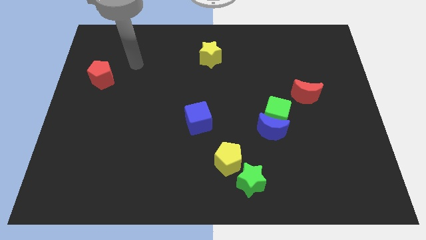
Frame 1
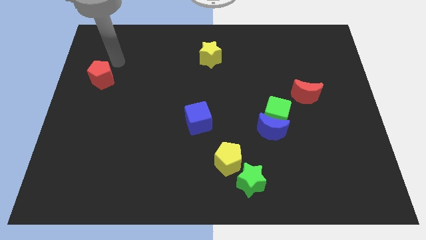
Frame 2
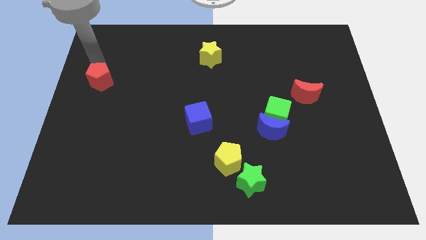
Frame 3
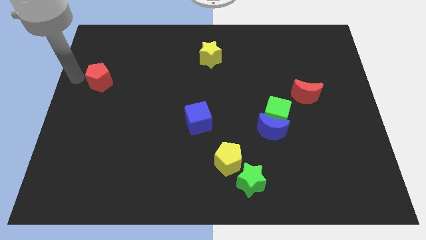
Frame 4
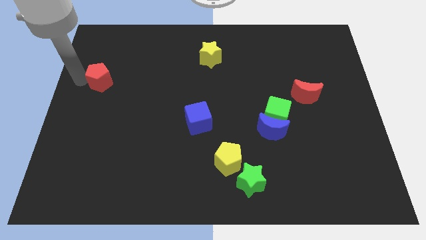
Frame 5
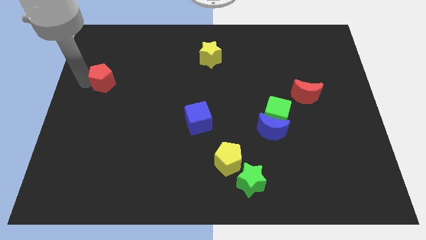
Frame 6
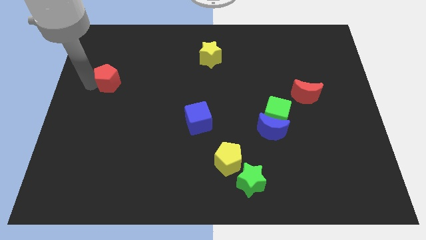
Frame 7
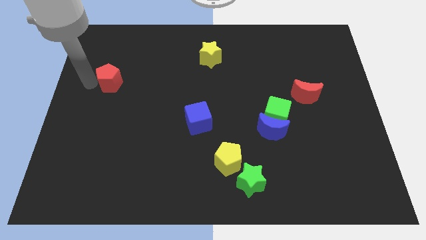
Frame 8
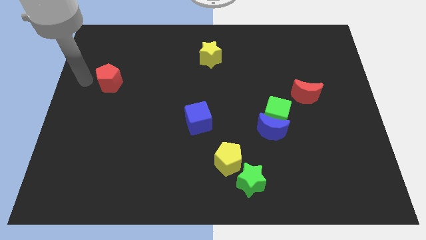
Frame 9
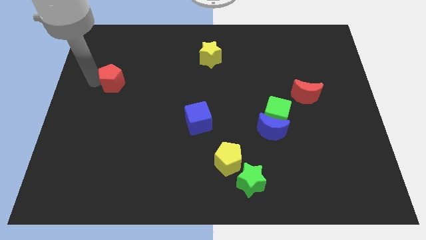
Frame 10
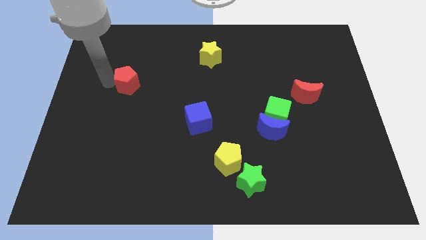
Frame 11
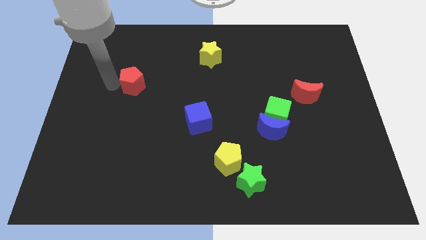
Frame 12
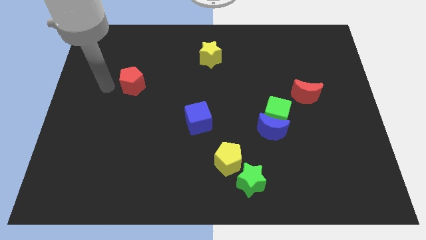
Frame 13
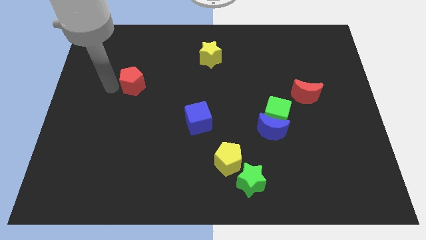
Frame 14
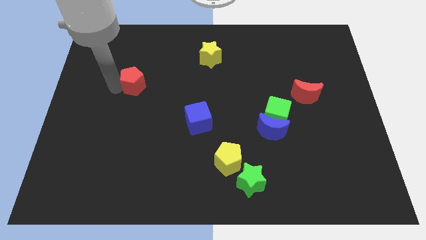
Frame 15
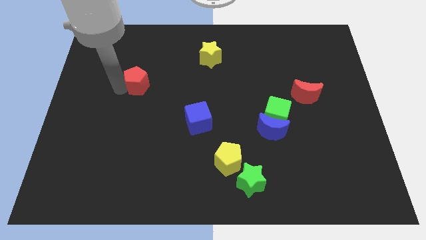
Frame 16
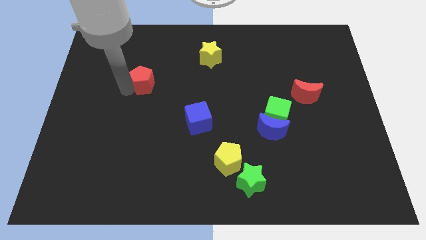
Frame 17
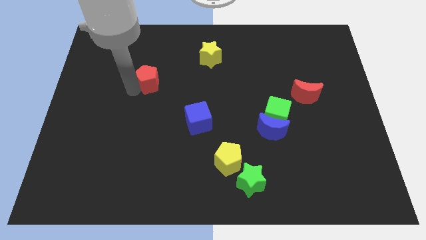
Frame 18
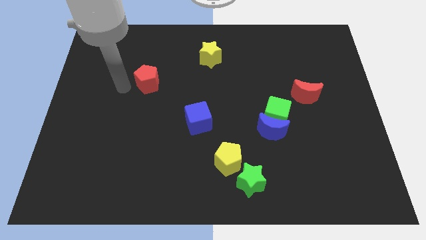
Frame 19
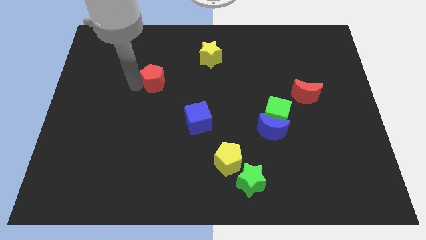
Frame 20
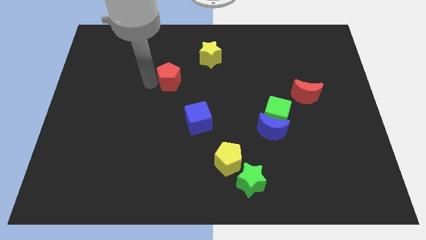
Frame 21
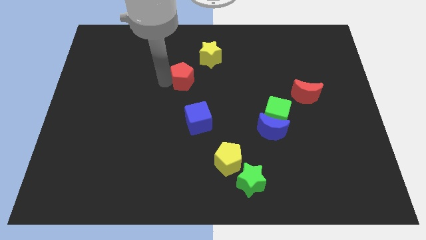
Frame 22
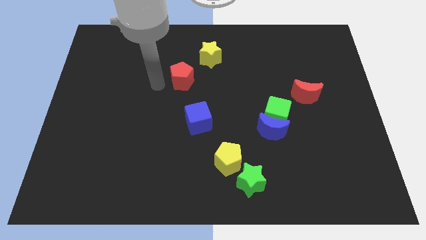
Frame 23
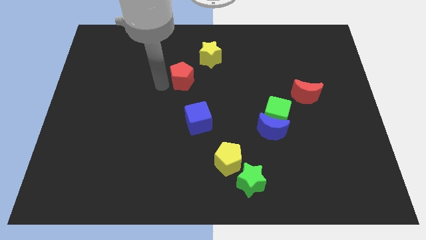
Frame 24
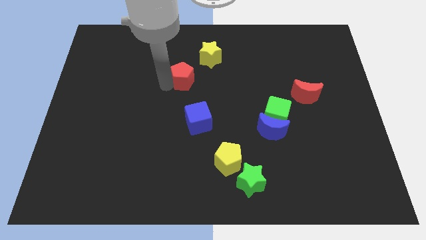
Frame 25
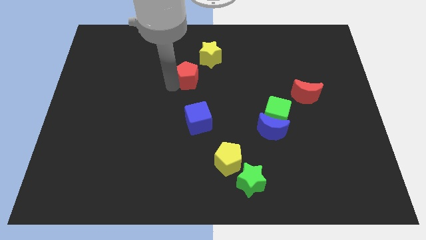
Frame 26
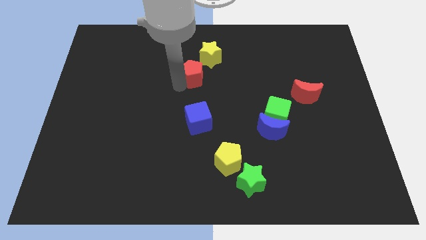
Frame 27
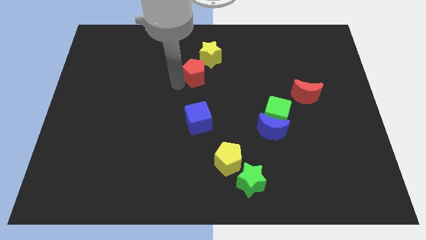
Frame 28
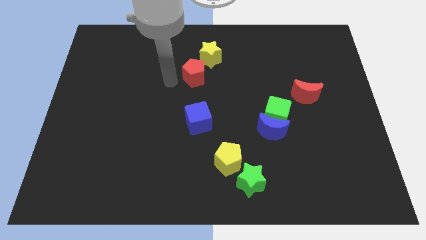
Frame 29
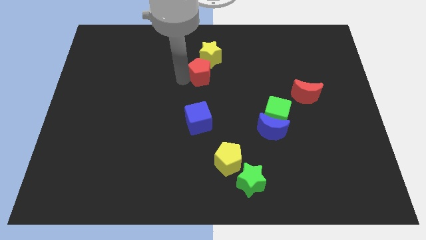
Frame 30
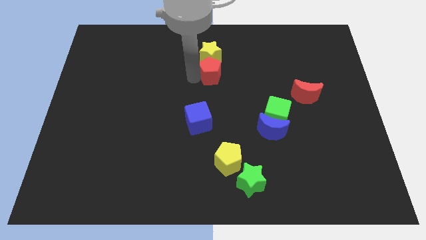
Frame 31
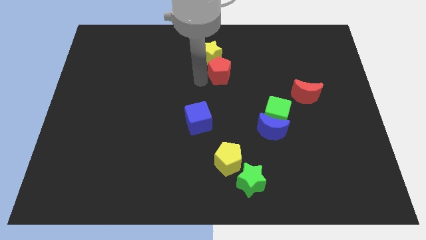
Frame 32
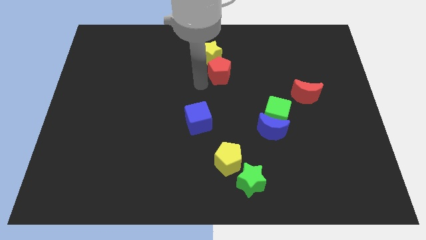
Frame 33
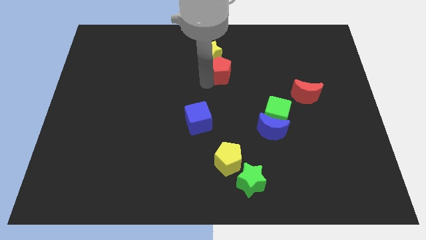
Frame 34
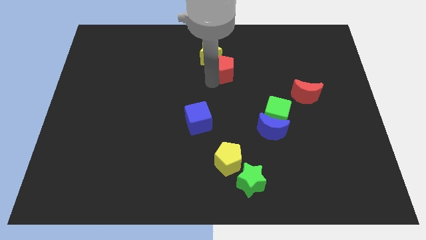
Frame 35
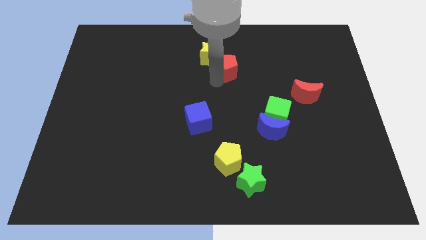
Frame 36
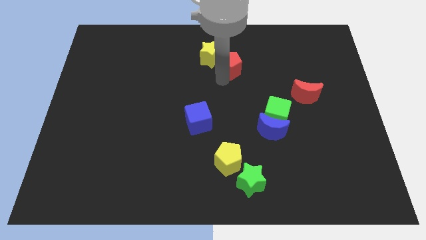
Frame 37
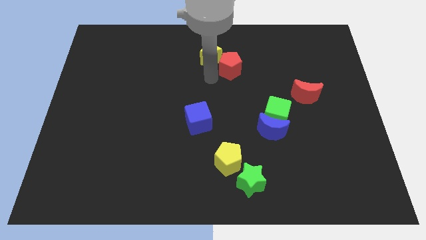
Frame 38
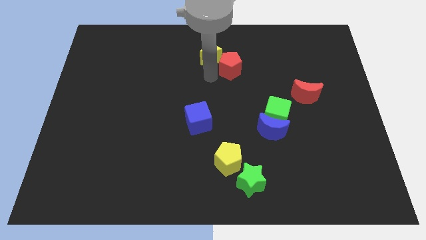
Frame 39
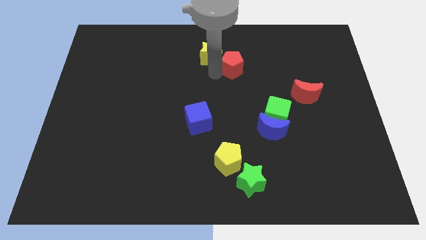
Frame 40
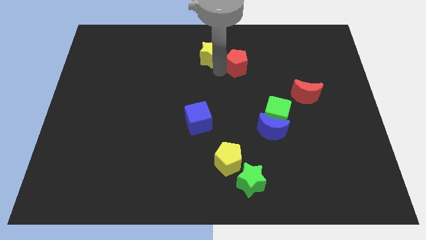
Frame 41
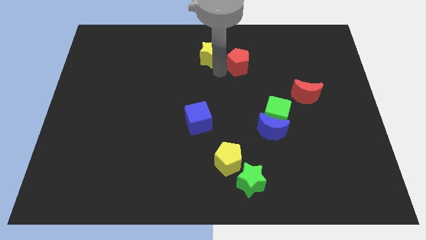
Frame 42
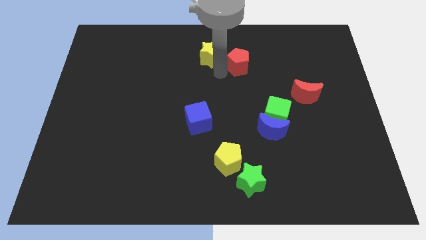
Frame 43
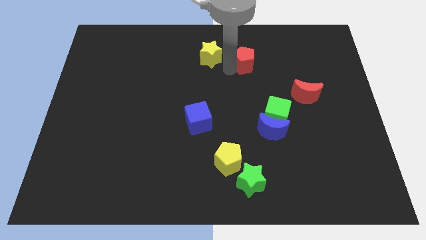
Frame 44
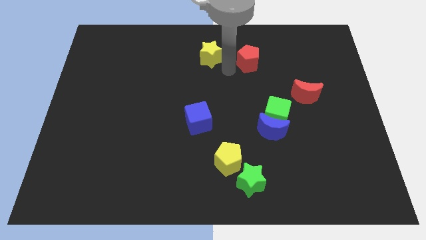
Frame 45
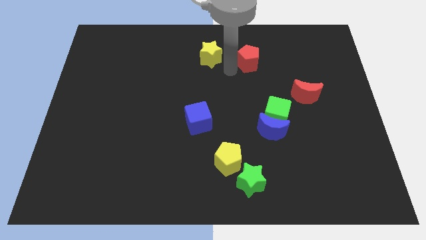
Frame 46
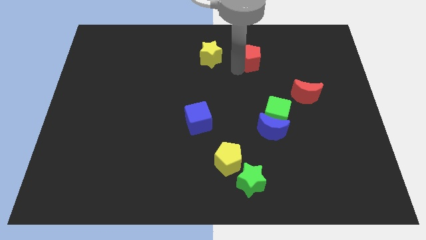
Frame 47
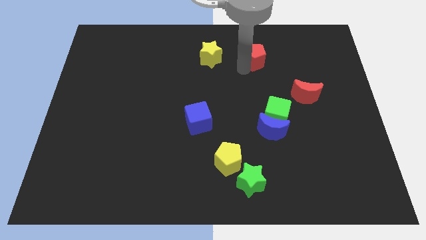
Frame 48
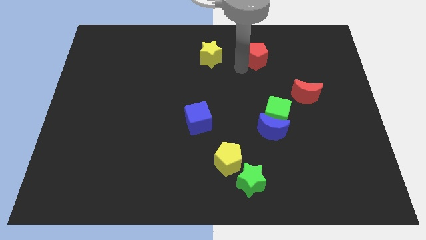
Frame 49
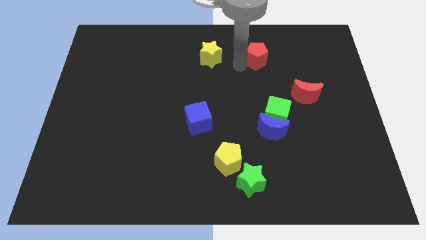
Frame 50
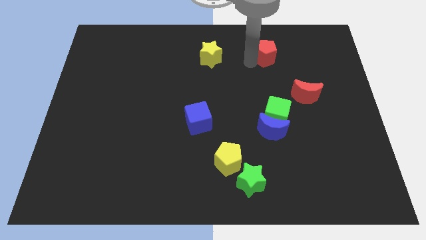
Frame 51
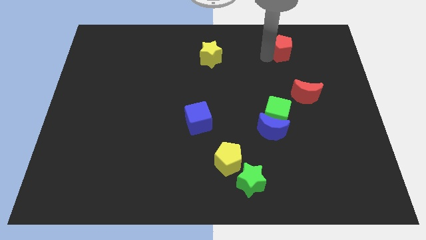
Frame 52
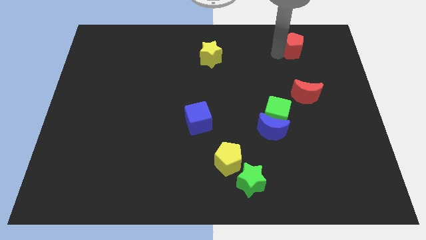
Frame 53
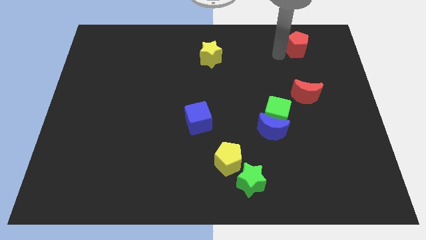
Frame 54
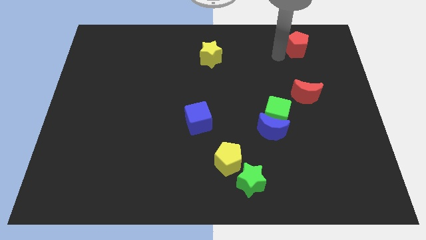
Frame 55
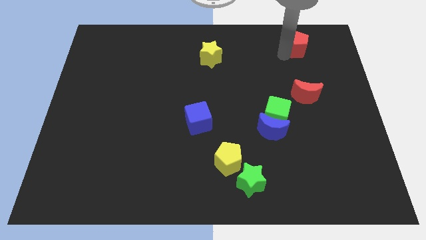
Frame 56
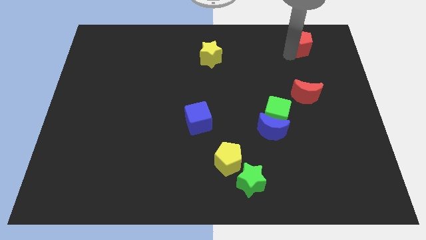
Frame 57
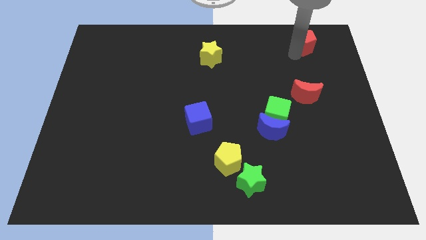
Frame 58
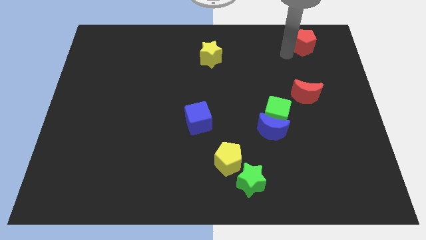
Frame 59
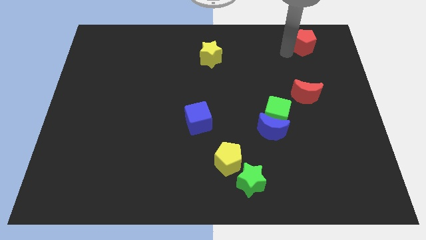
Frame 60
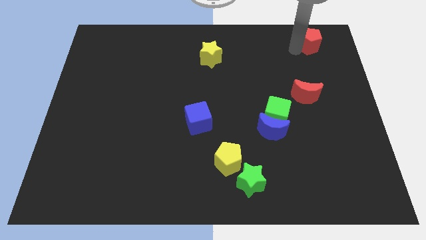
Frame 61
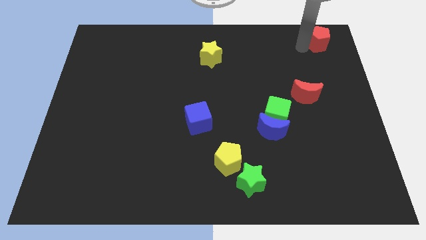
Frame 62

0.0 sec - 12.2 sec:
slide the red pentagon to the top right
